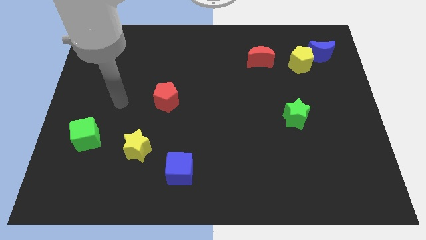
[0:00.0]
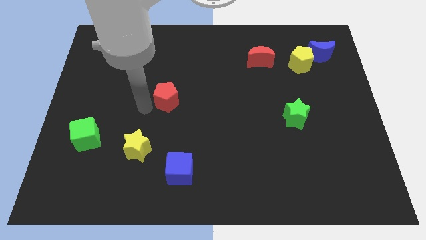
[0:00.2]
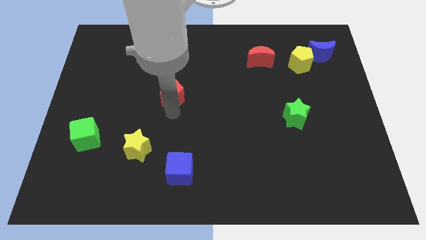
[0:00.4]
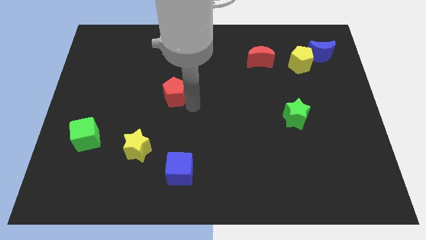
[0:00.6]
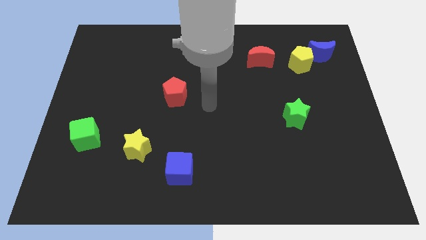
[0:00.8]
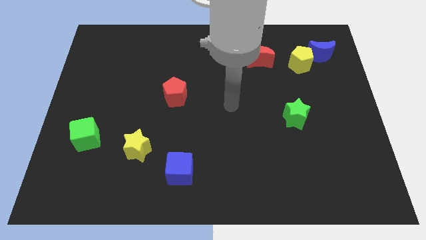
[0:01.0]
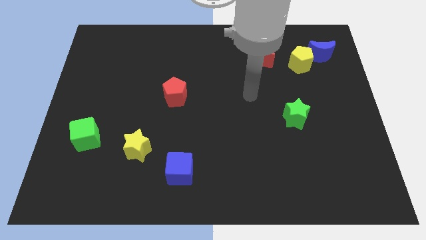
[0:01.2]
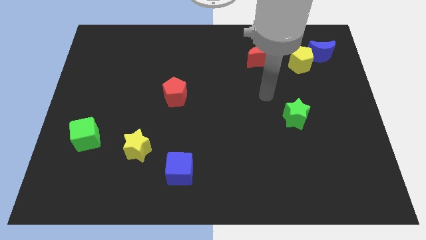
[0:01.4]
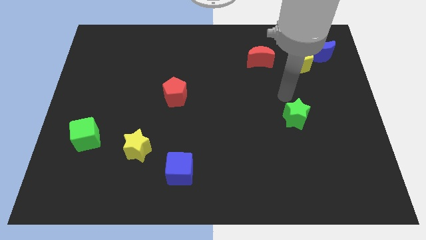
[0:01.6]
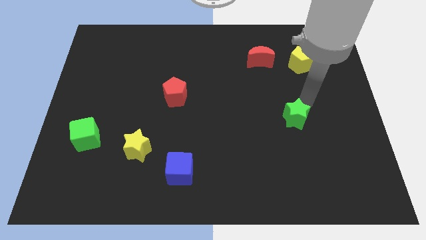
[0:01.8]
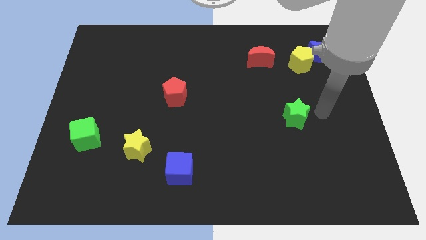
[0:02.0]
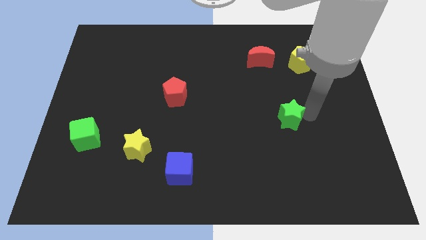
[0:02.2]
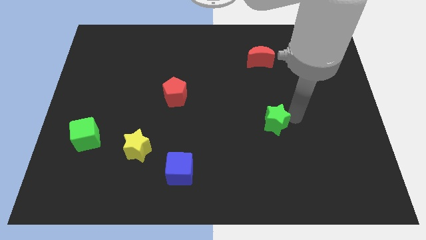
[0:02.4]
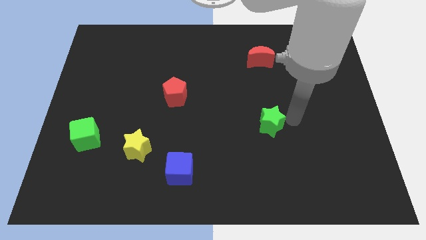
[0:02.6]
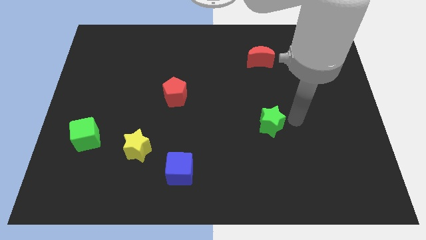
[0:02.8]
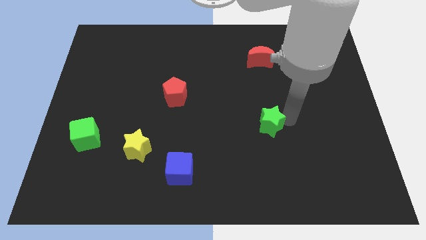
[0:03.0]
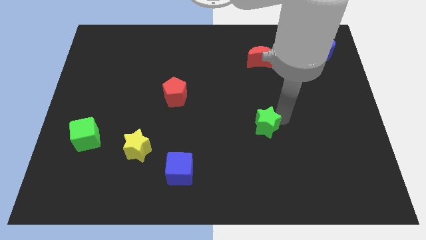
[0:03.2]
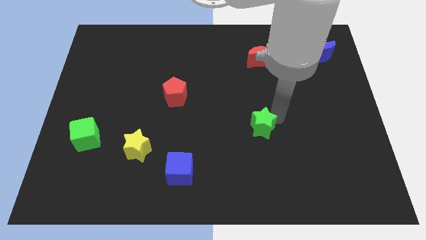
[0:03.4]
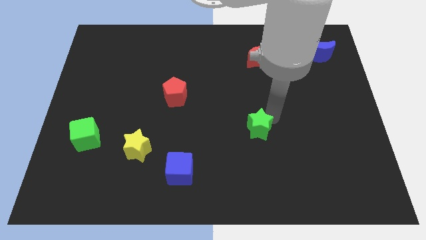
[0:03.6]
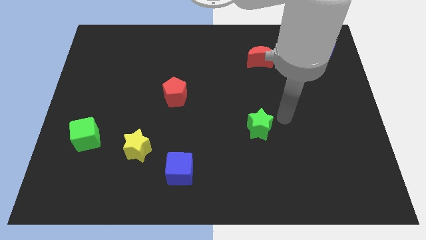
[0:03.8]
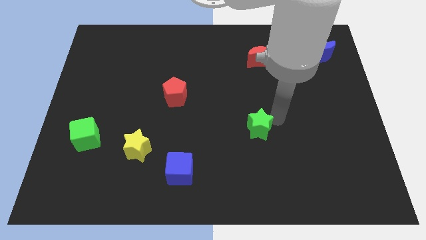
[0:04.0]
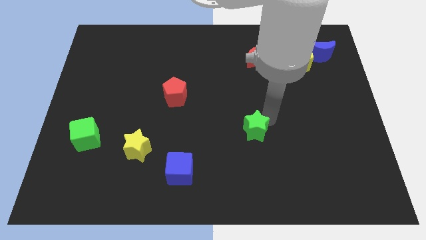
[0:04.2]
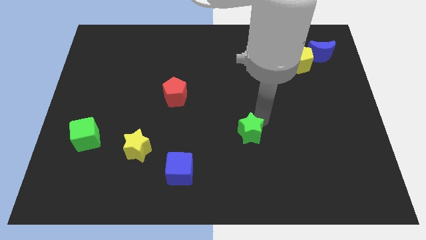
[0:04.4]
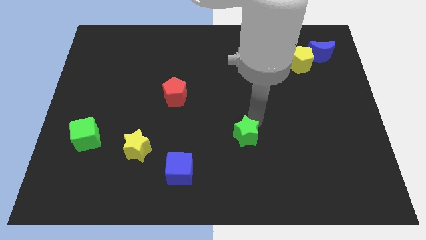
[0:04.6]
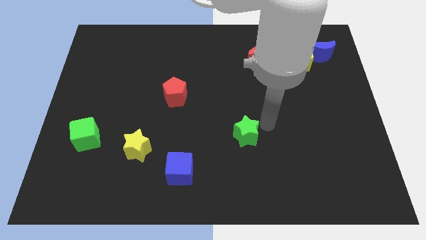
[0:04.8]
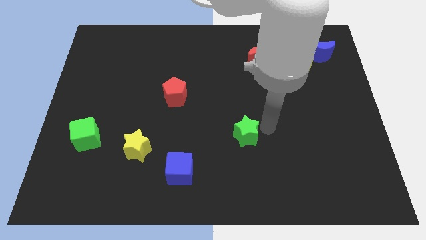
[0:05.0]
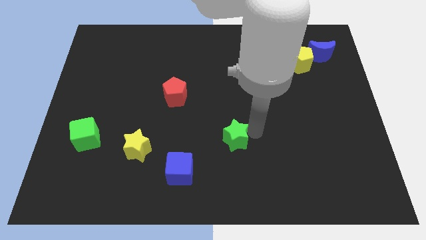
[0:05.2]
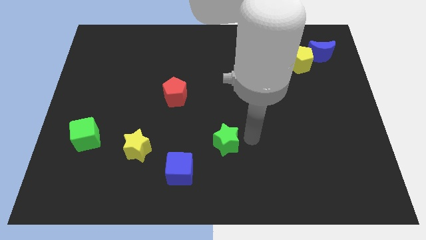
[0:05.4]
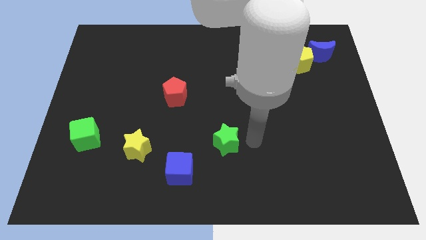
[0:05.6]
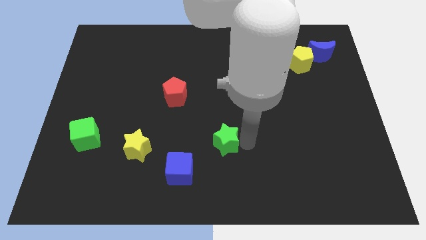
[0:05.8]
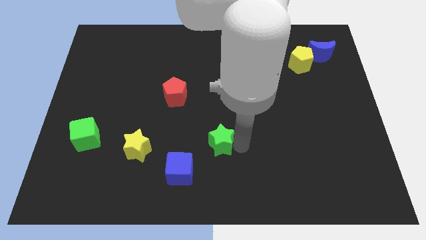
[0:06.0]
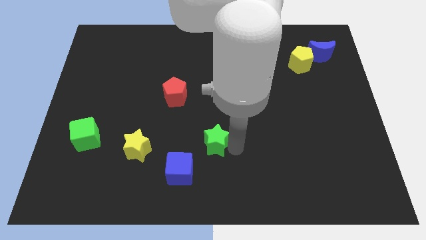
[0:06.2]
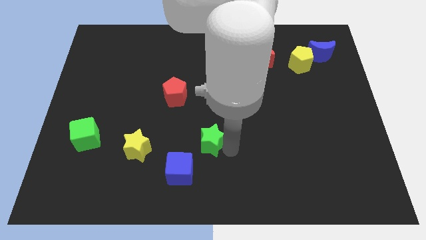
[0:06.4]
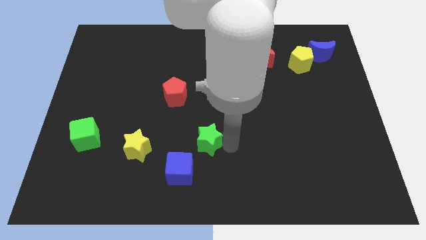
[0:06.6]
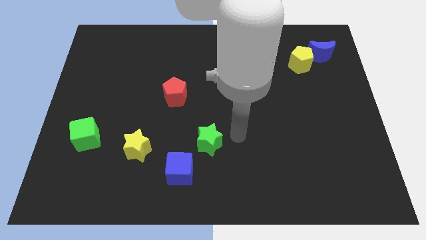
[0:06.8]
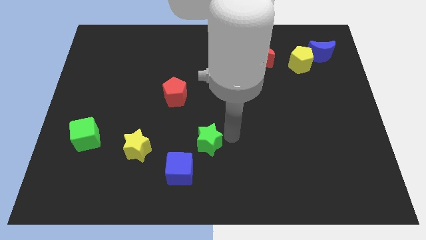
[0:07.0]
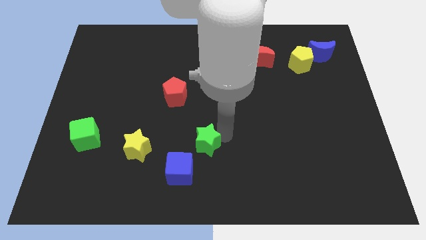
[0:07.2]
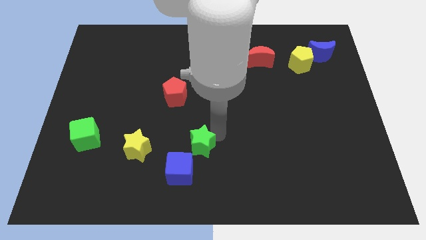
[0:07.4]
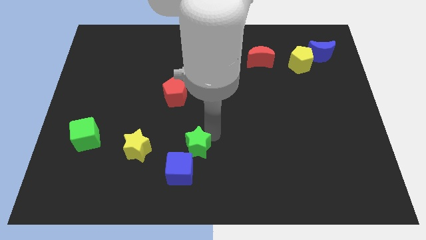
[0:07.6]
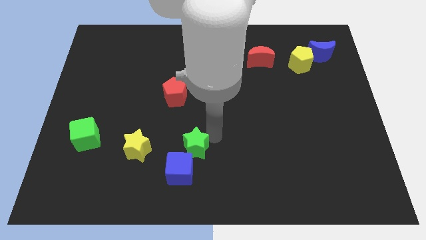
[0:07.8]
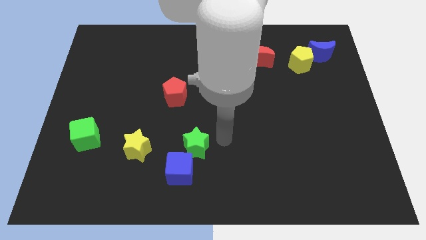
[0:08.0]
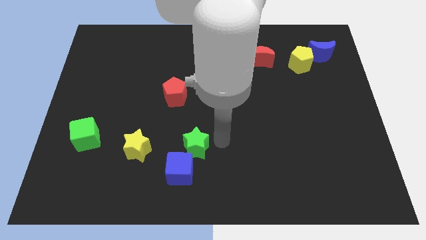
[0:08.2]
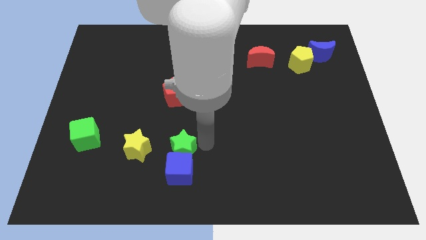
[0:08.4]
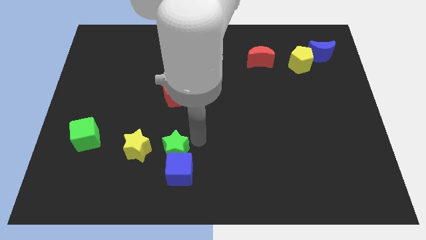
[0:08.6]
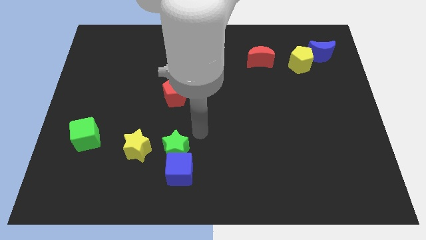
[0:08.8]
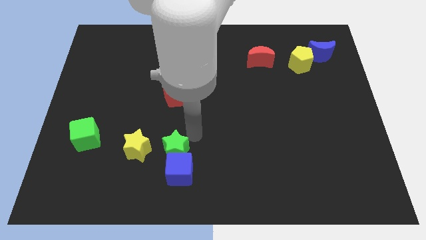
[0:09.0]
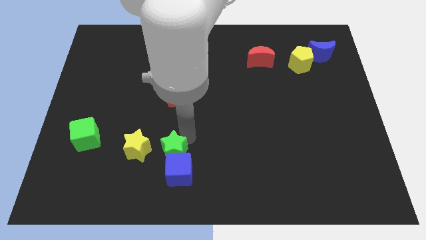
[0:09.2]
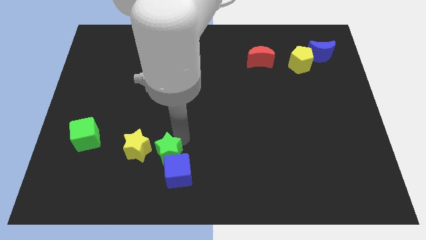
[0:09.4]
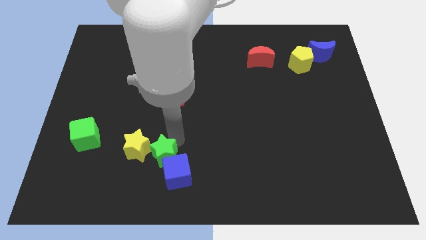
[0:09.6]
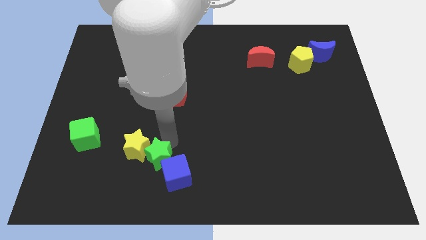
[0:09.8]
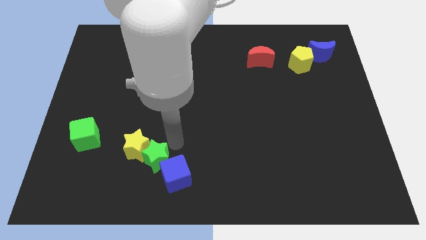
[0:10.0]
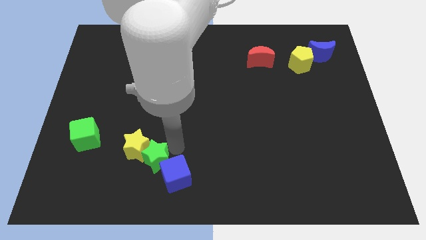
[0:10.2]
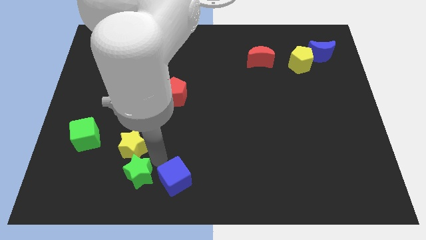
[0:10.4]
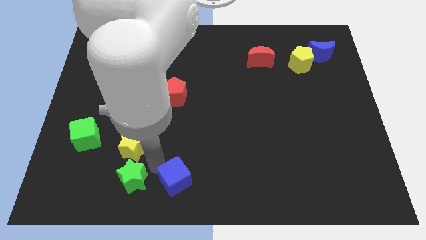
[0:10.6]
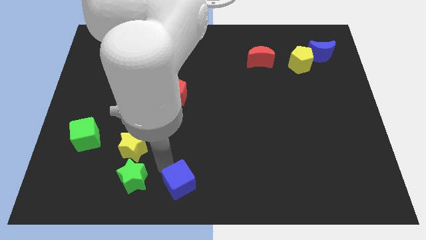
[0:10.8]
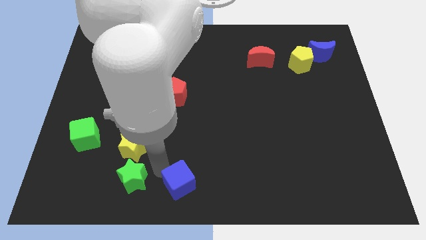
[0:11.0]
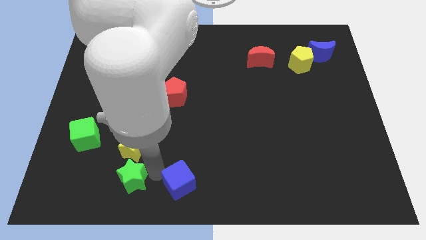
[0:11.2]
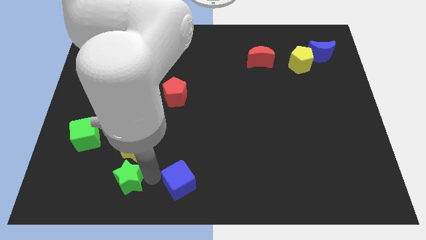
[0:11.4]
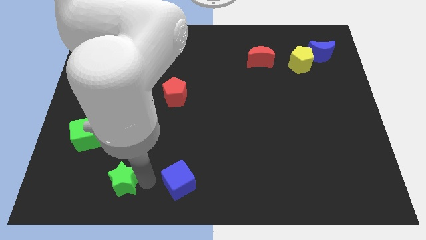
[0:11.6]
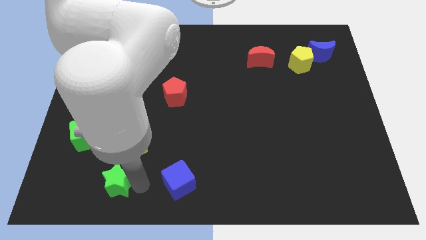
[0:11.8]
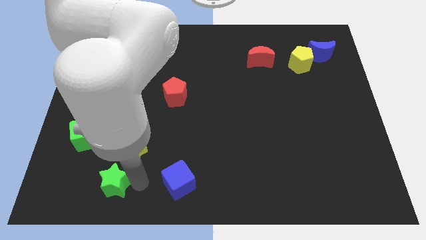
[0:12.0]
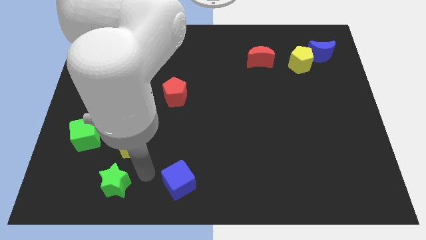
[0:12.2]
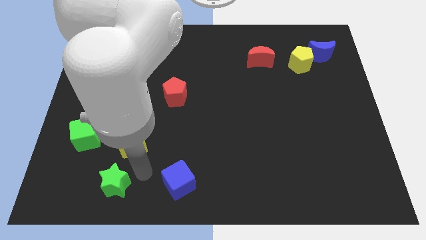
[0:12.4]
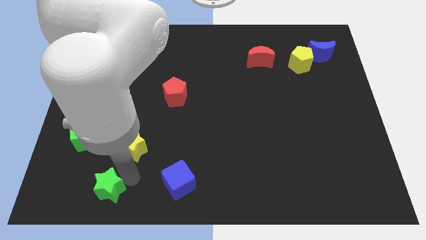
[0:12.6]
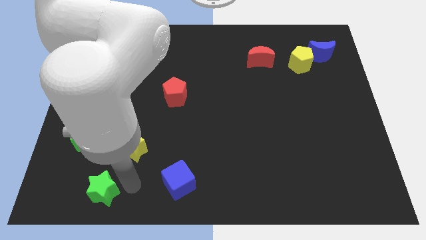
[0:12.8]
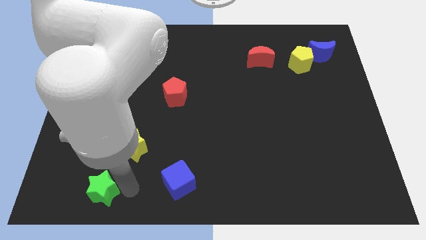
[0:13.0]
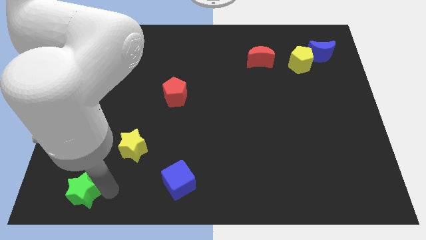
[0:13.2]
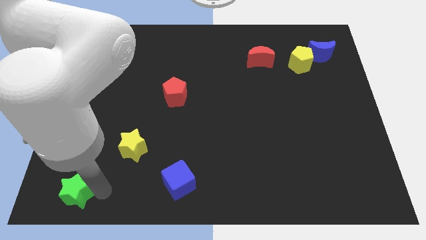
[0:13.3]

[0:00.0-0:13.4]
slide the green star to the bottom left corner
